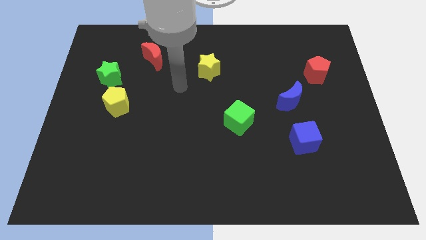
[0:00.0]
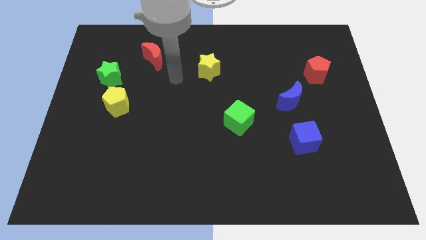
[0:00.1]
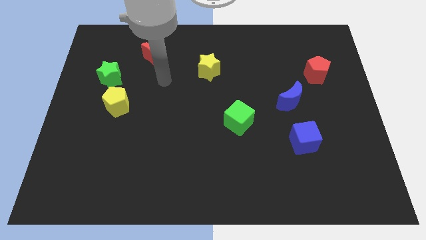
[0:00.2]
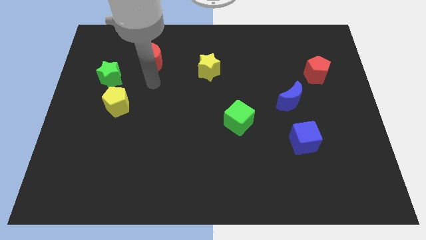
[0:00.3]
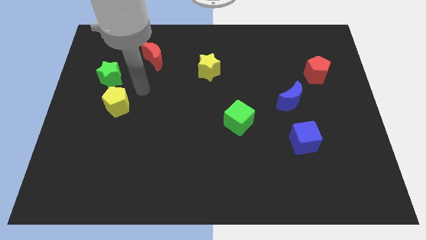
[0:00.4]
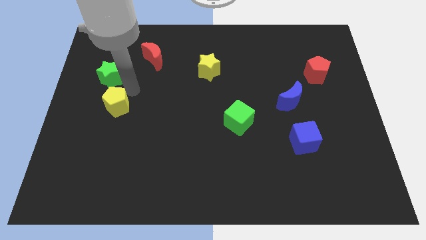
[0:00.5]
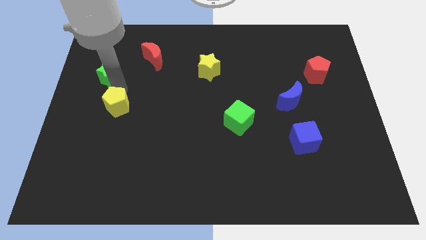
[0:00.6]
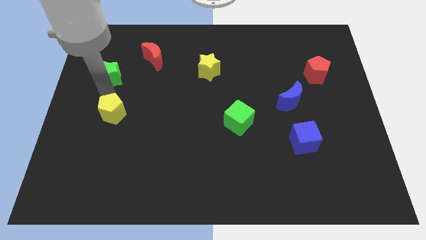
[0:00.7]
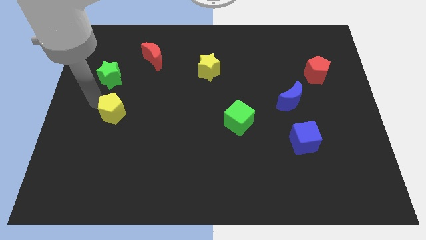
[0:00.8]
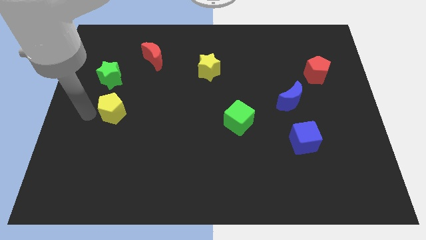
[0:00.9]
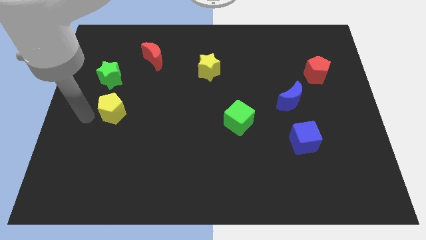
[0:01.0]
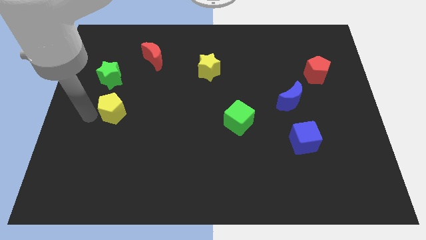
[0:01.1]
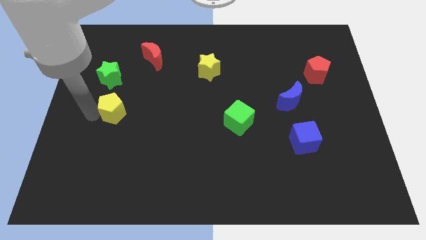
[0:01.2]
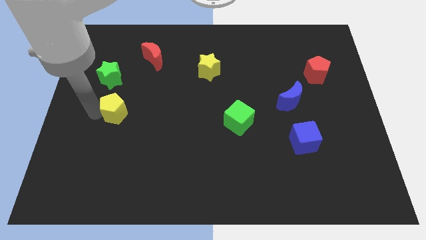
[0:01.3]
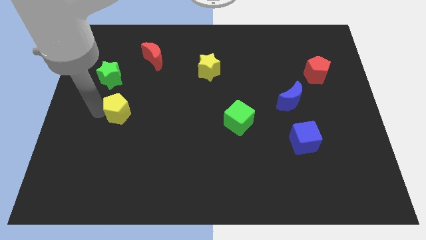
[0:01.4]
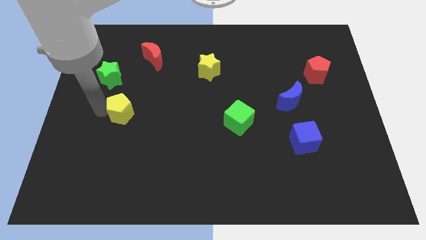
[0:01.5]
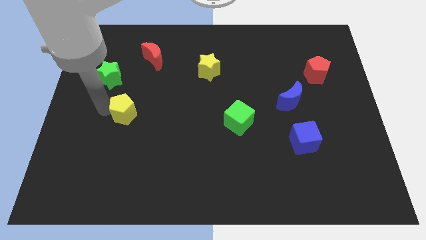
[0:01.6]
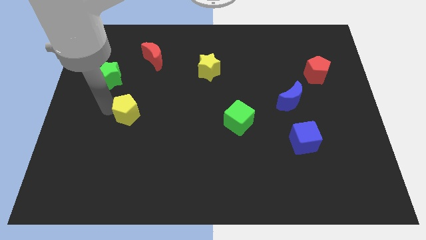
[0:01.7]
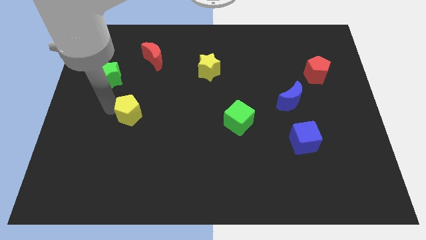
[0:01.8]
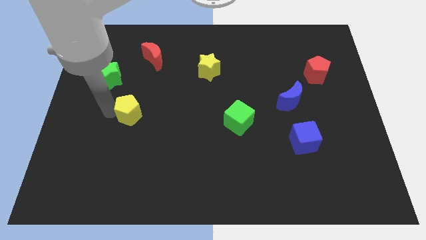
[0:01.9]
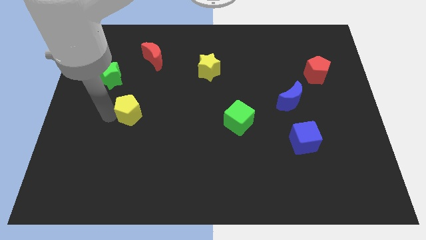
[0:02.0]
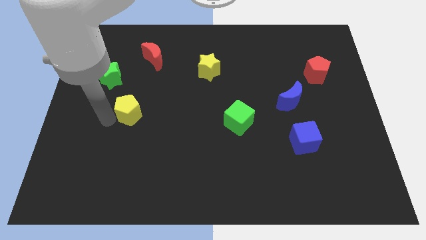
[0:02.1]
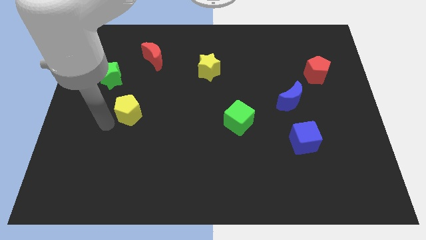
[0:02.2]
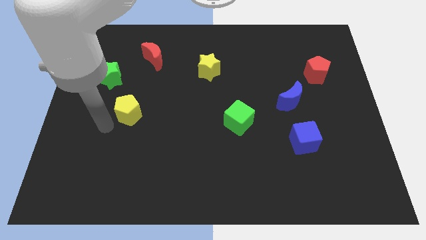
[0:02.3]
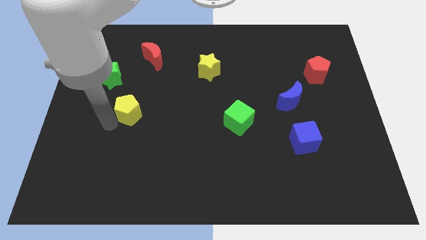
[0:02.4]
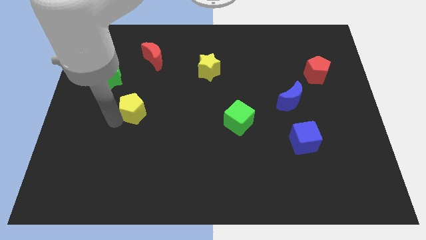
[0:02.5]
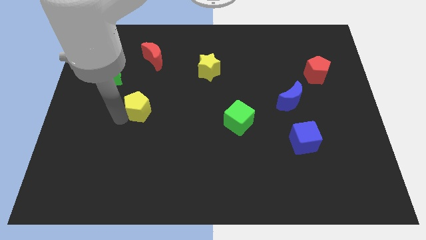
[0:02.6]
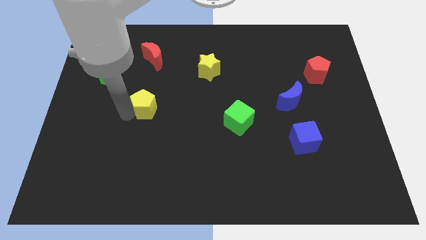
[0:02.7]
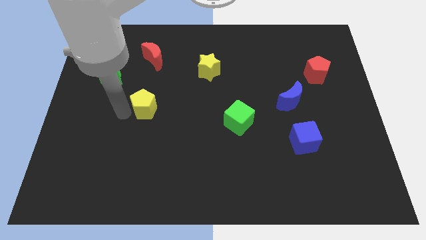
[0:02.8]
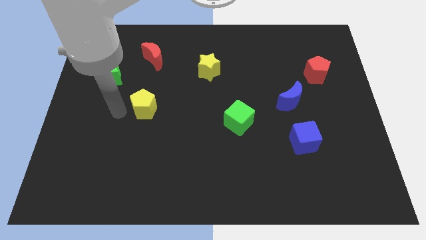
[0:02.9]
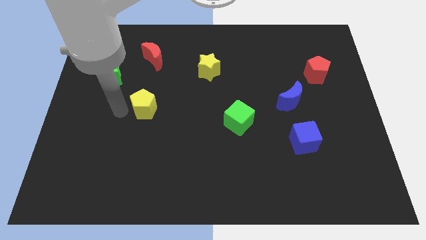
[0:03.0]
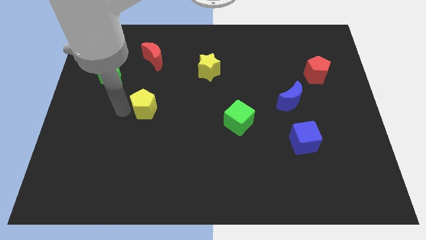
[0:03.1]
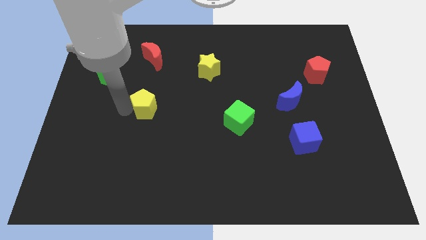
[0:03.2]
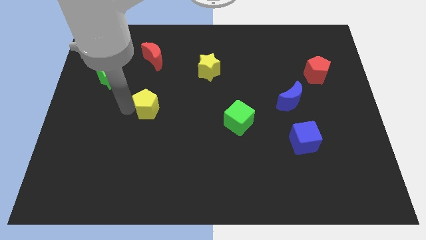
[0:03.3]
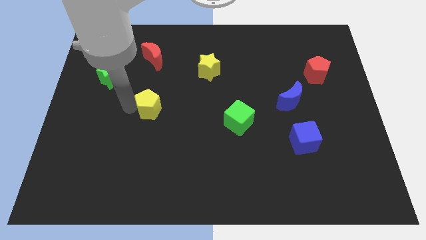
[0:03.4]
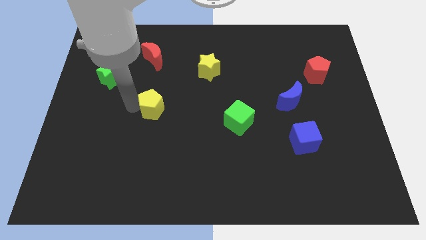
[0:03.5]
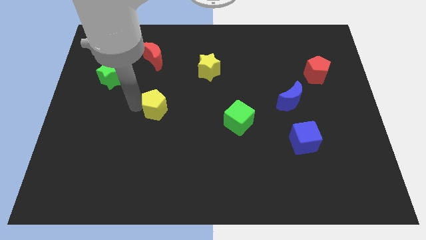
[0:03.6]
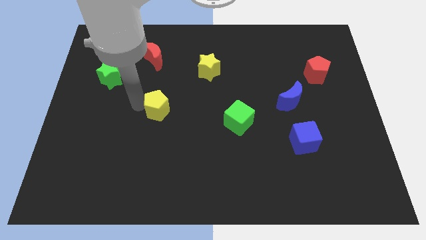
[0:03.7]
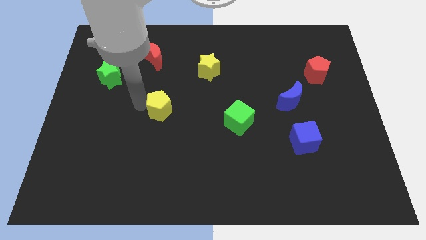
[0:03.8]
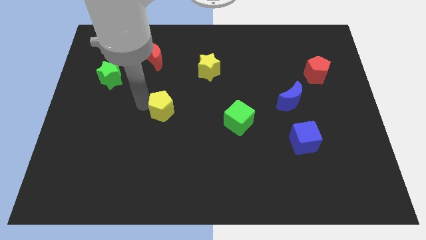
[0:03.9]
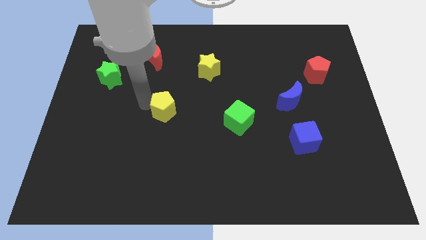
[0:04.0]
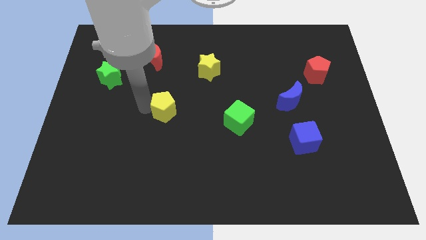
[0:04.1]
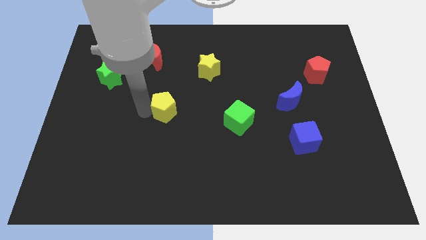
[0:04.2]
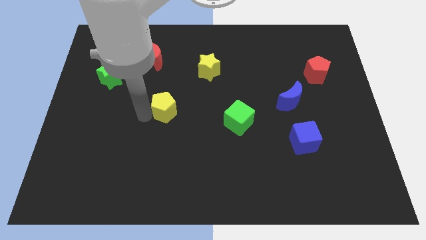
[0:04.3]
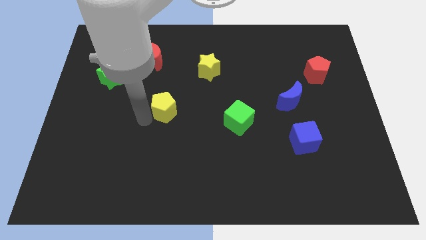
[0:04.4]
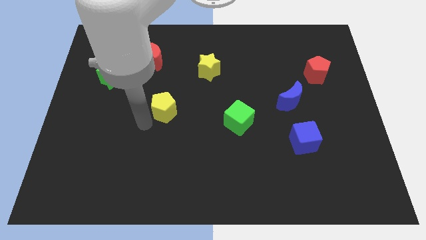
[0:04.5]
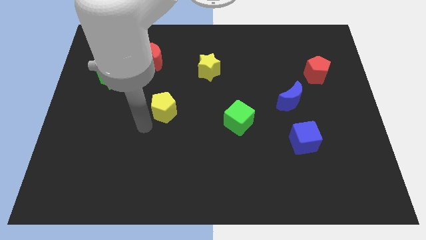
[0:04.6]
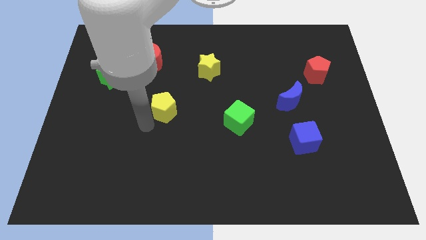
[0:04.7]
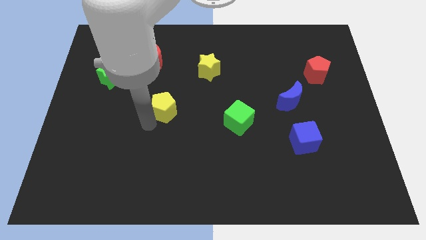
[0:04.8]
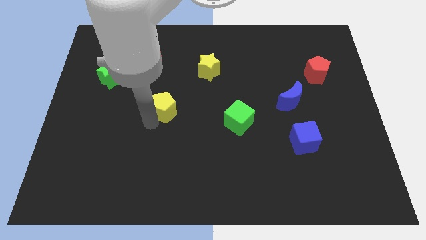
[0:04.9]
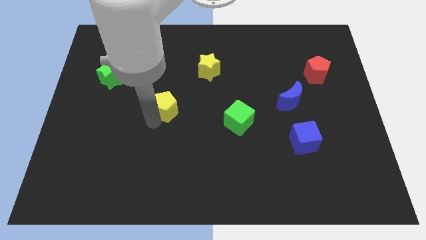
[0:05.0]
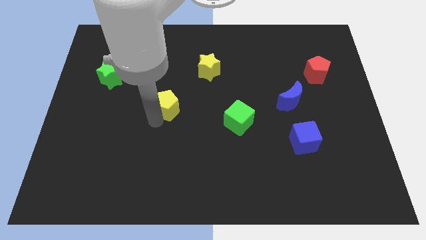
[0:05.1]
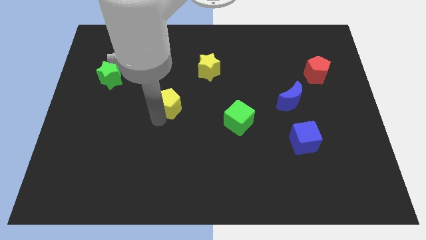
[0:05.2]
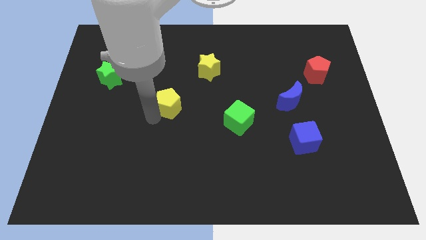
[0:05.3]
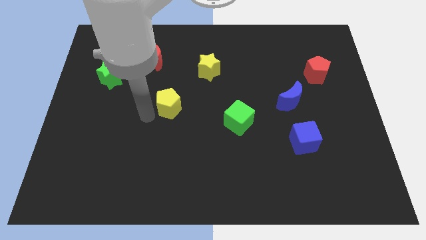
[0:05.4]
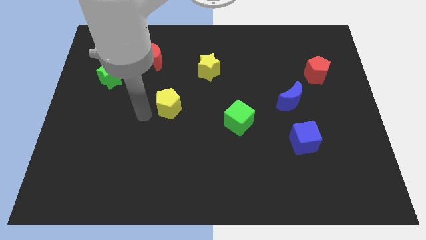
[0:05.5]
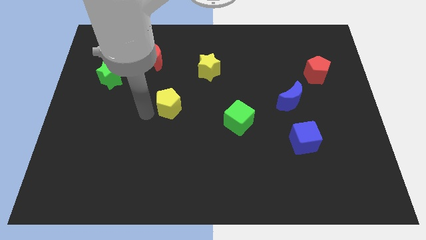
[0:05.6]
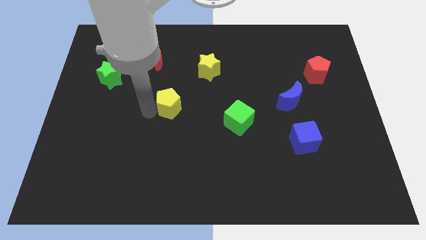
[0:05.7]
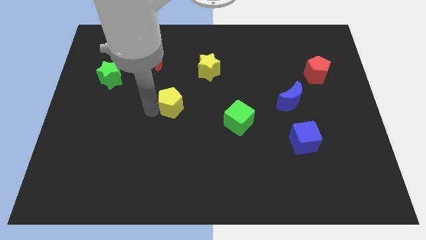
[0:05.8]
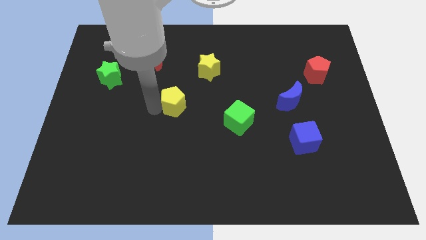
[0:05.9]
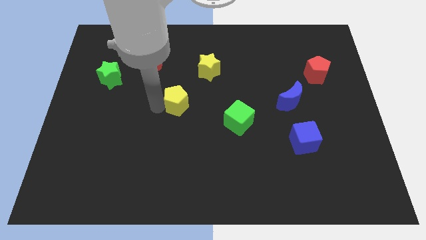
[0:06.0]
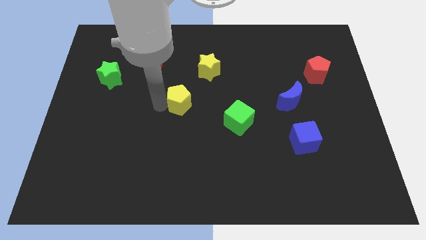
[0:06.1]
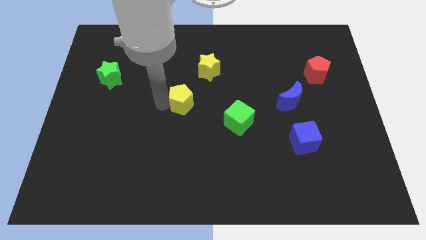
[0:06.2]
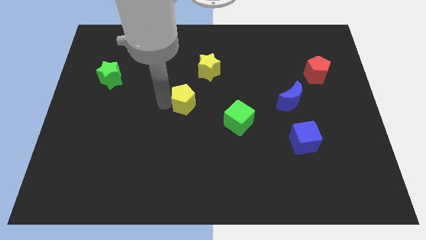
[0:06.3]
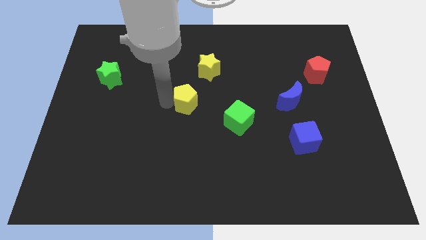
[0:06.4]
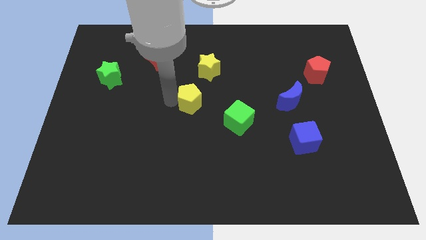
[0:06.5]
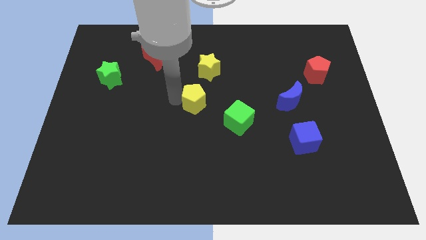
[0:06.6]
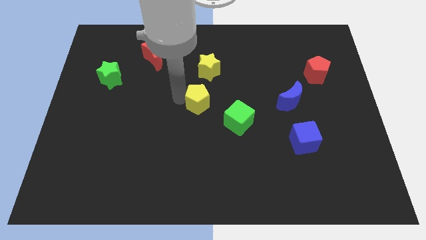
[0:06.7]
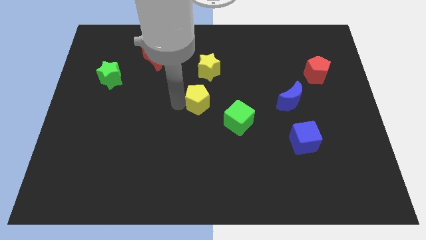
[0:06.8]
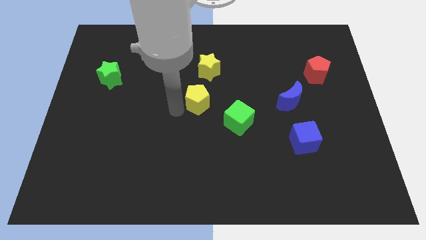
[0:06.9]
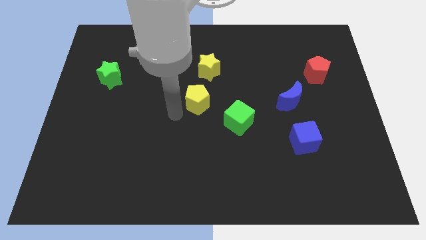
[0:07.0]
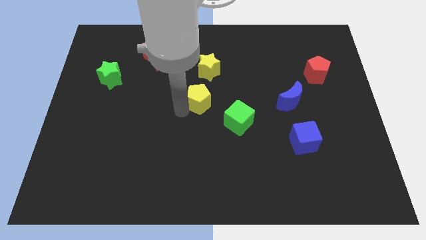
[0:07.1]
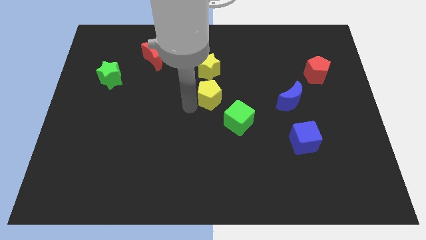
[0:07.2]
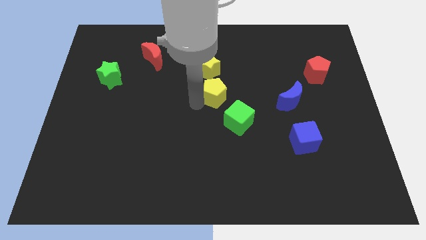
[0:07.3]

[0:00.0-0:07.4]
slide the yellow pentagon to the bottom right side of the yellow star
